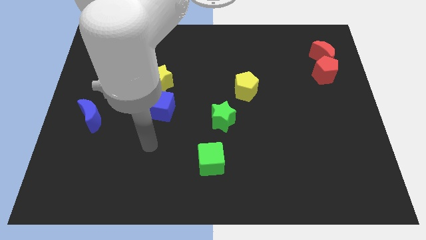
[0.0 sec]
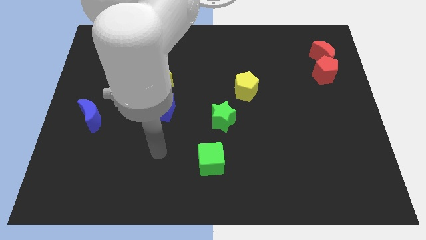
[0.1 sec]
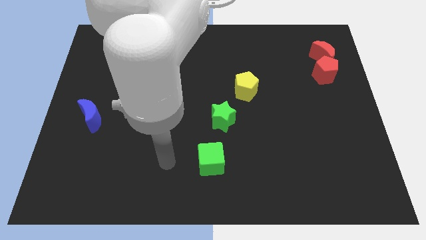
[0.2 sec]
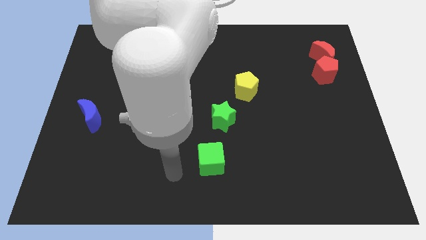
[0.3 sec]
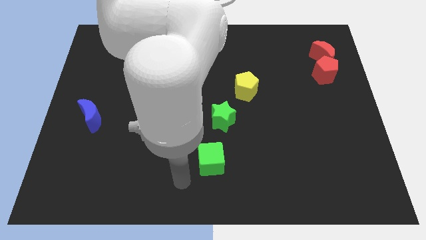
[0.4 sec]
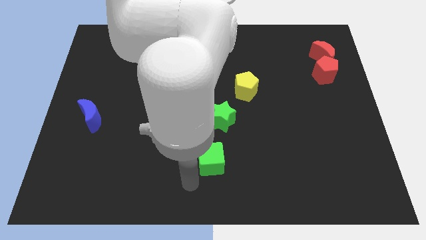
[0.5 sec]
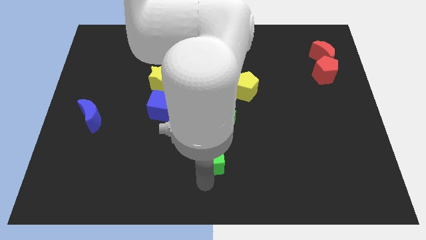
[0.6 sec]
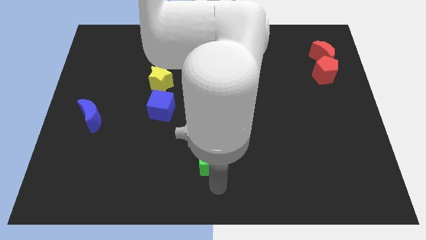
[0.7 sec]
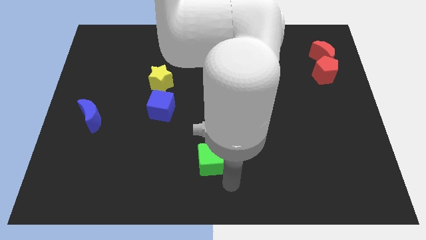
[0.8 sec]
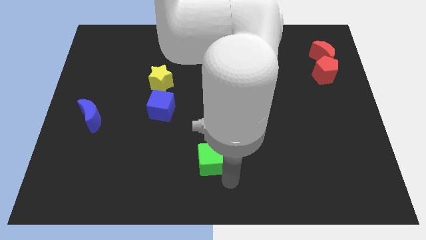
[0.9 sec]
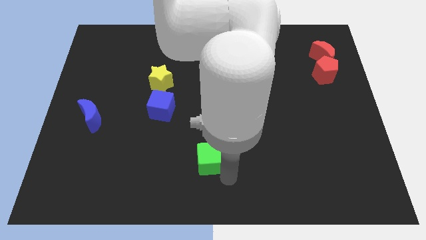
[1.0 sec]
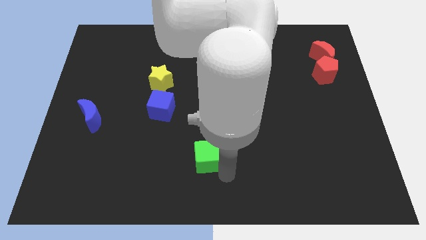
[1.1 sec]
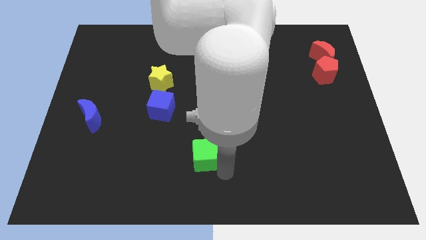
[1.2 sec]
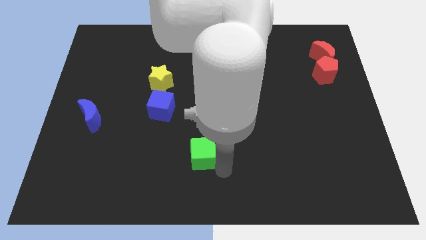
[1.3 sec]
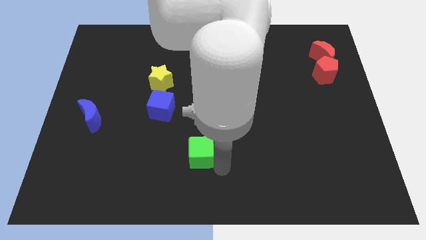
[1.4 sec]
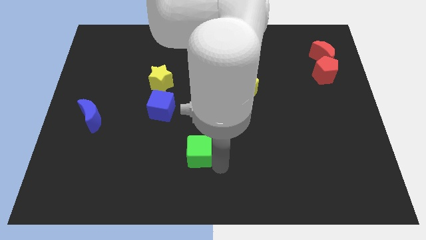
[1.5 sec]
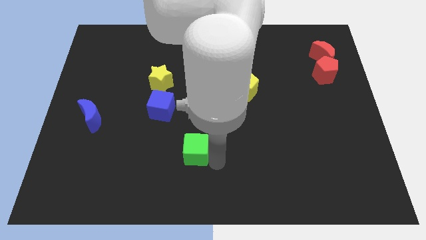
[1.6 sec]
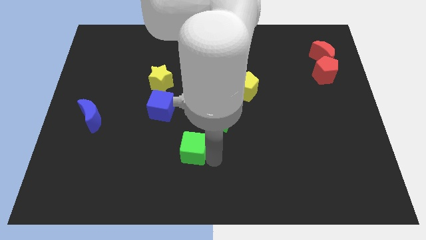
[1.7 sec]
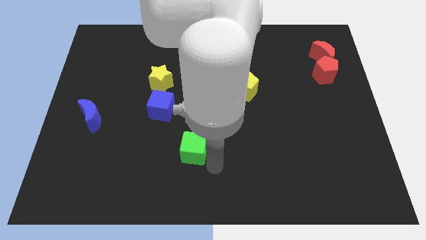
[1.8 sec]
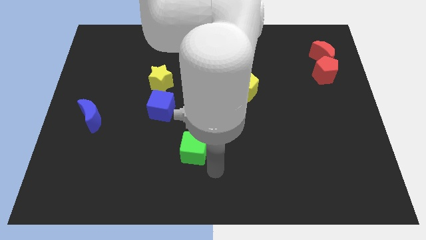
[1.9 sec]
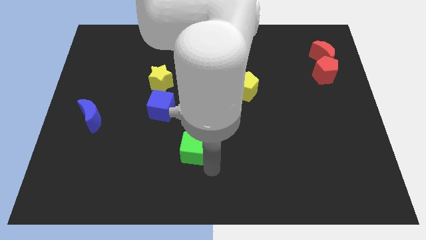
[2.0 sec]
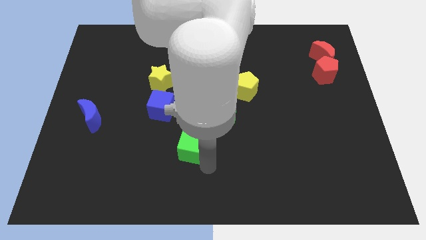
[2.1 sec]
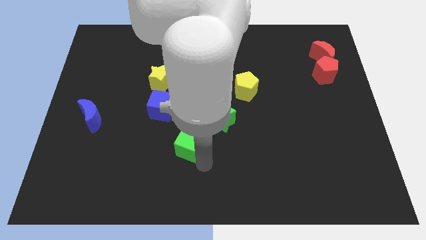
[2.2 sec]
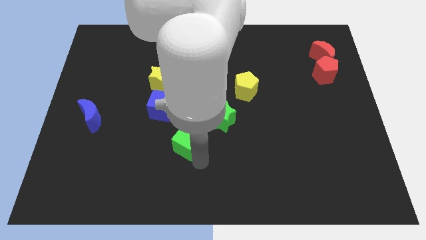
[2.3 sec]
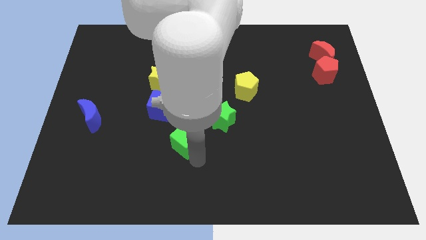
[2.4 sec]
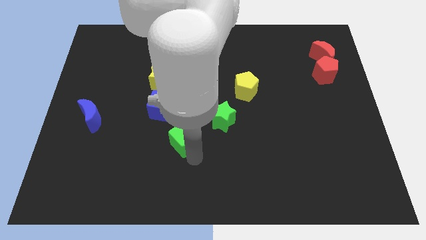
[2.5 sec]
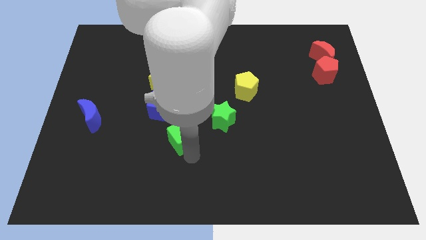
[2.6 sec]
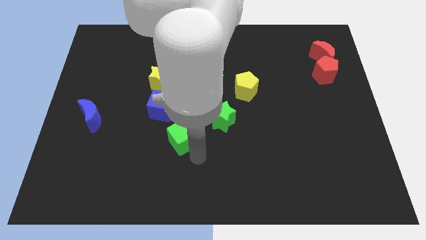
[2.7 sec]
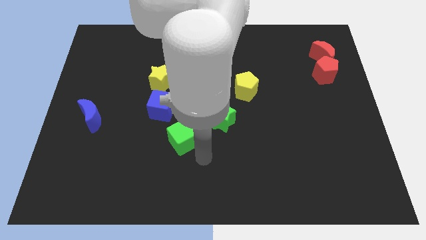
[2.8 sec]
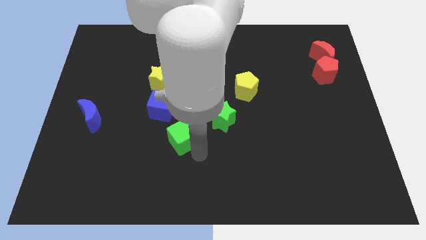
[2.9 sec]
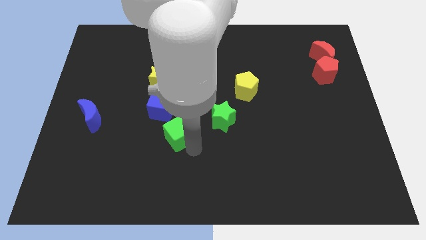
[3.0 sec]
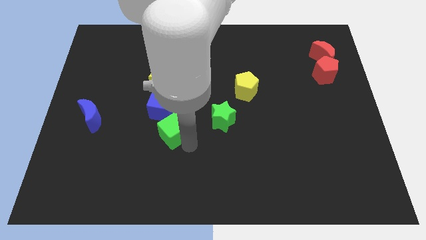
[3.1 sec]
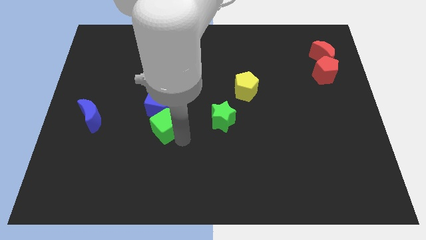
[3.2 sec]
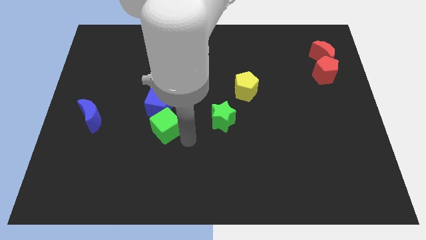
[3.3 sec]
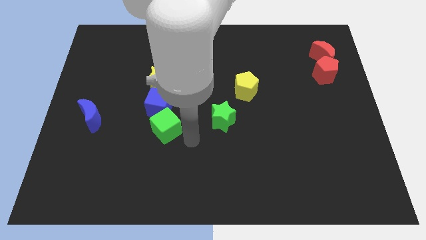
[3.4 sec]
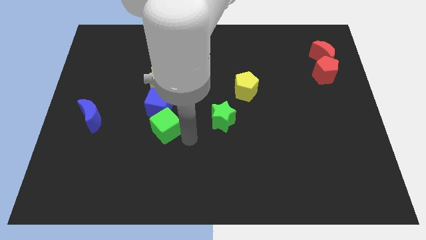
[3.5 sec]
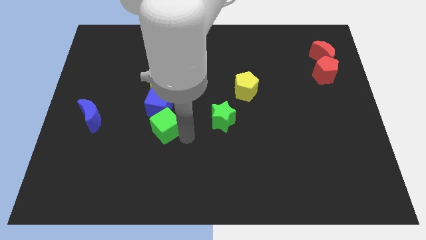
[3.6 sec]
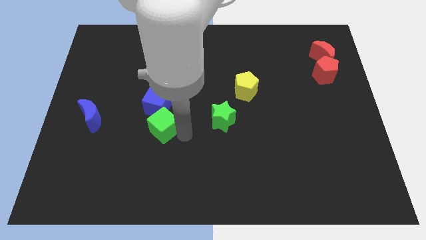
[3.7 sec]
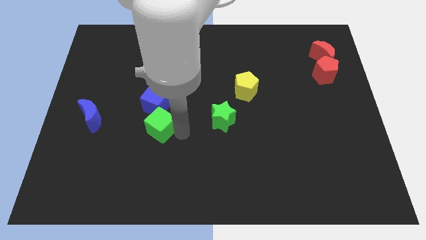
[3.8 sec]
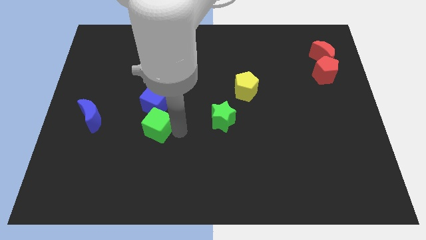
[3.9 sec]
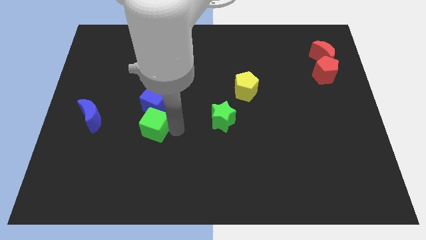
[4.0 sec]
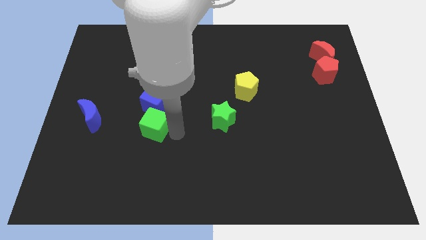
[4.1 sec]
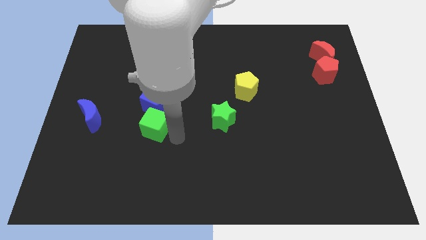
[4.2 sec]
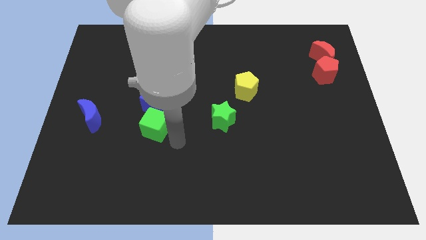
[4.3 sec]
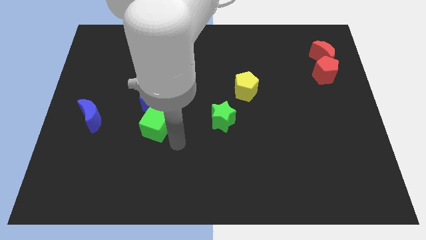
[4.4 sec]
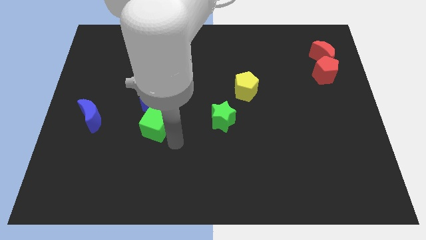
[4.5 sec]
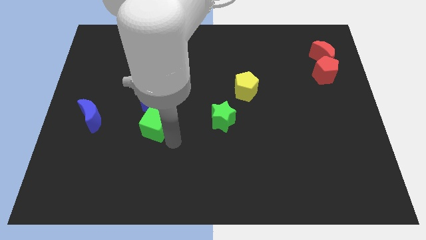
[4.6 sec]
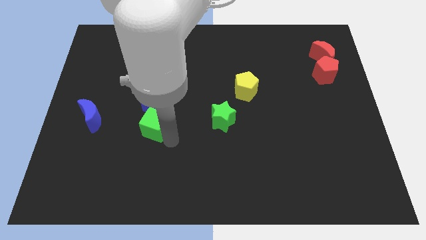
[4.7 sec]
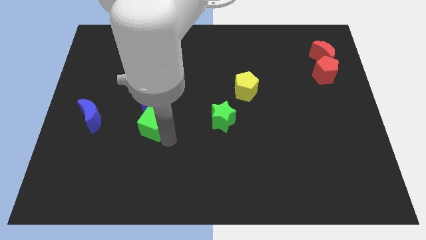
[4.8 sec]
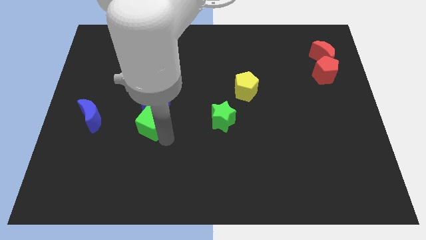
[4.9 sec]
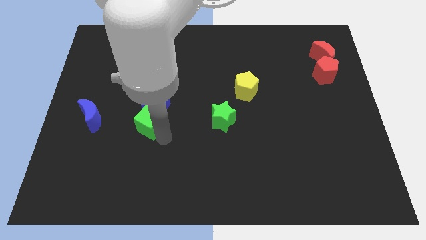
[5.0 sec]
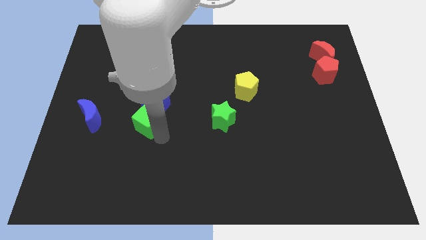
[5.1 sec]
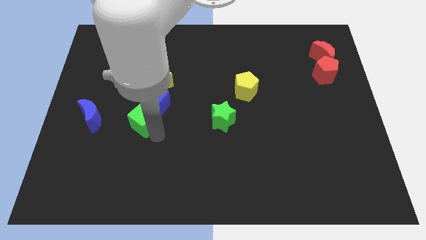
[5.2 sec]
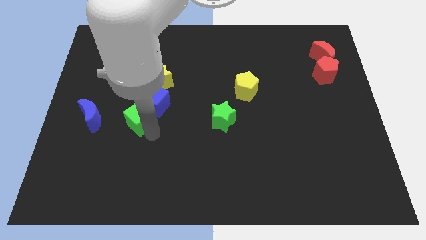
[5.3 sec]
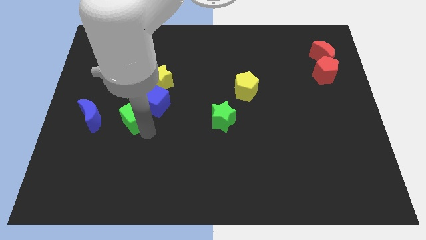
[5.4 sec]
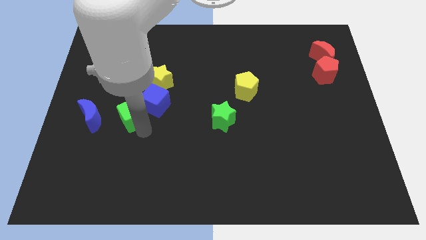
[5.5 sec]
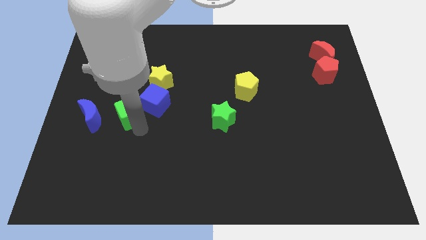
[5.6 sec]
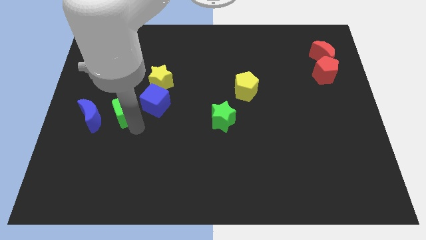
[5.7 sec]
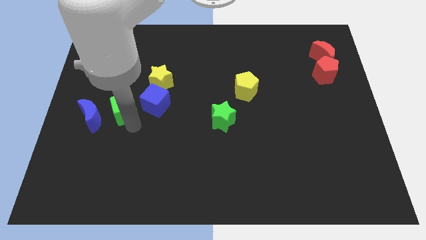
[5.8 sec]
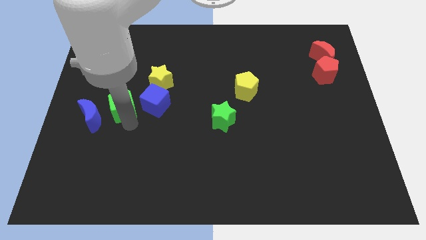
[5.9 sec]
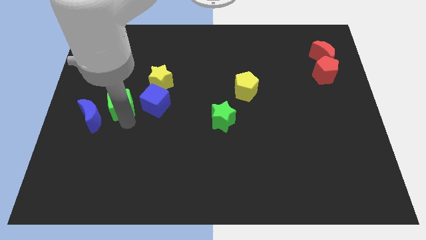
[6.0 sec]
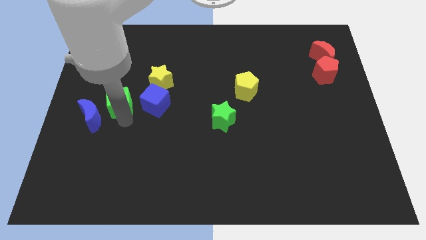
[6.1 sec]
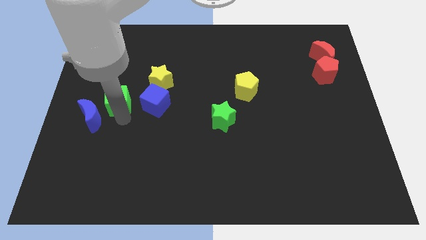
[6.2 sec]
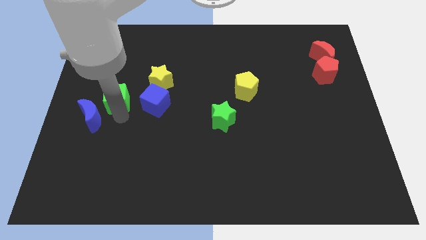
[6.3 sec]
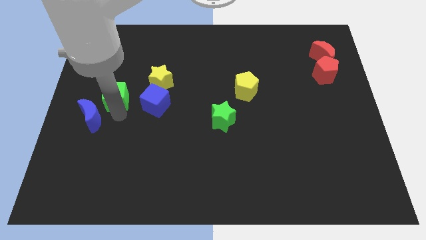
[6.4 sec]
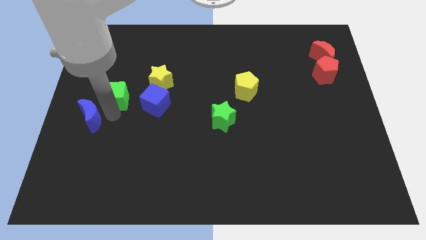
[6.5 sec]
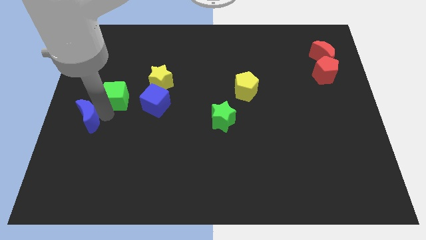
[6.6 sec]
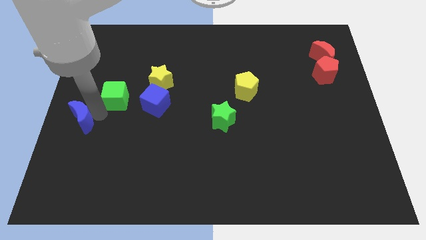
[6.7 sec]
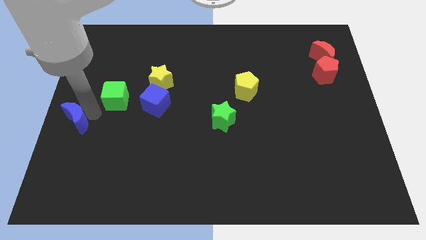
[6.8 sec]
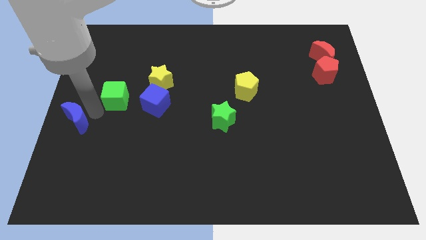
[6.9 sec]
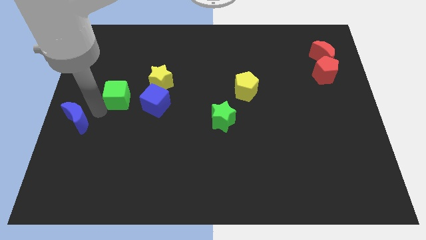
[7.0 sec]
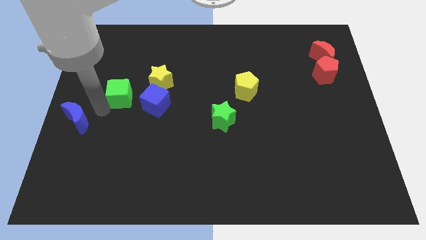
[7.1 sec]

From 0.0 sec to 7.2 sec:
push the green cube to the top left side of the blue cube
